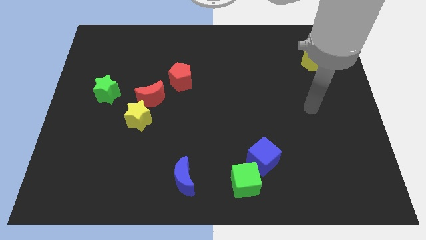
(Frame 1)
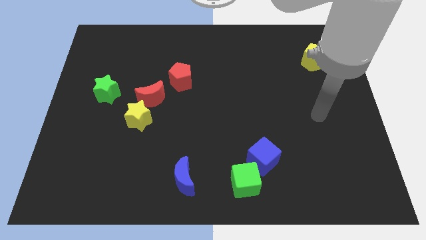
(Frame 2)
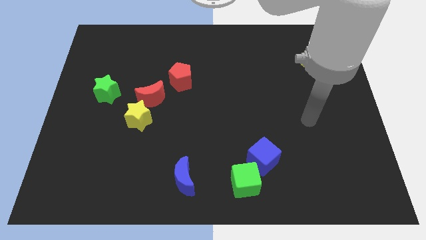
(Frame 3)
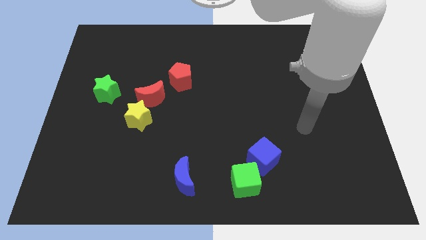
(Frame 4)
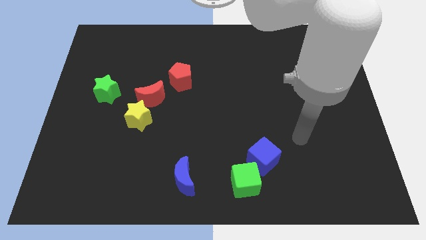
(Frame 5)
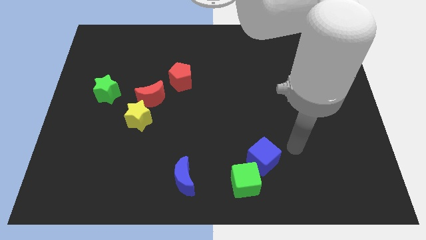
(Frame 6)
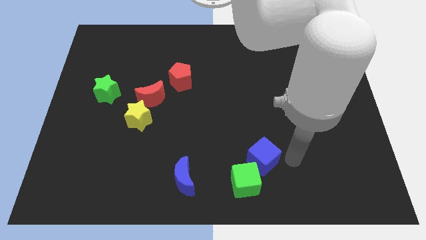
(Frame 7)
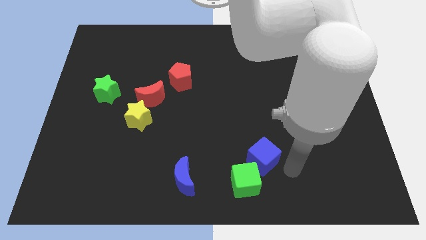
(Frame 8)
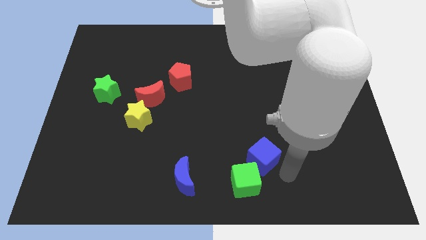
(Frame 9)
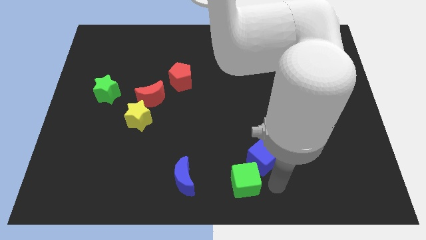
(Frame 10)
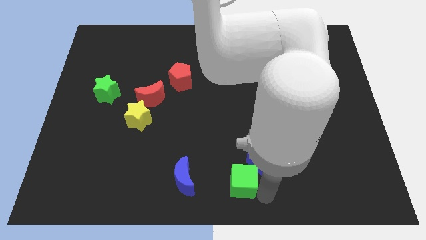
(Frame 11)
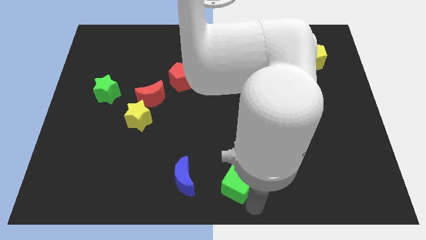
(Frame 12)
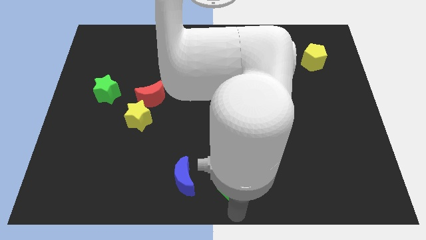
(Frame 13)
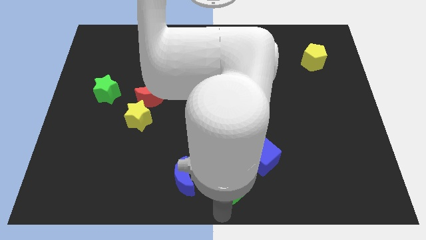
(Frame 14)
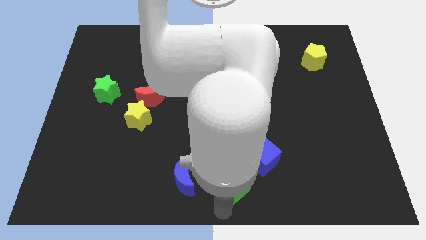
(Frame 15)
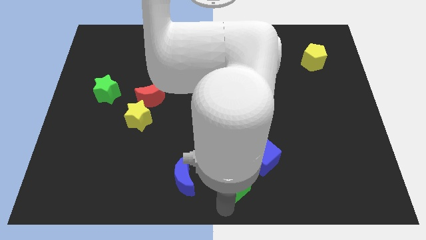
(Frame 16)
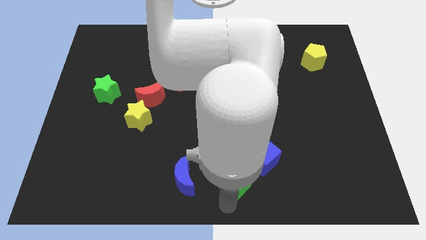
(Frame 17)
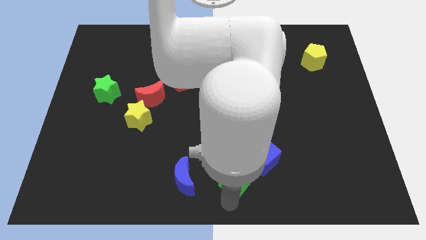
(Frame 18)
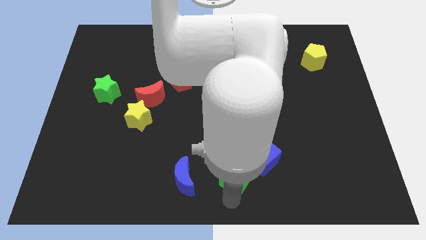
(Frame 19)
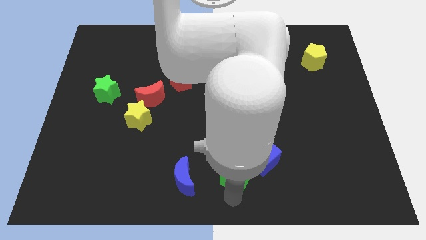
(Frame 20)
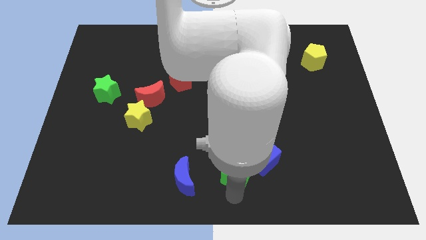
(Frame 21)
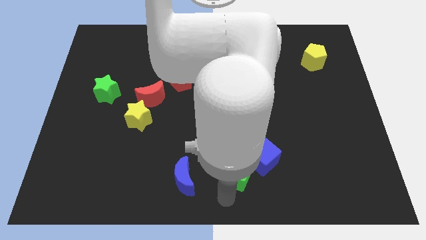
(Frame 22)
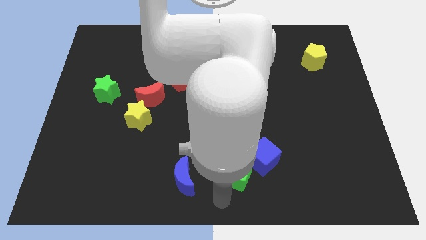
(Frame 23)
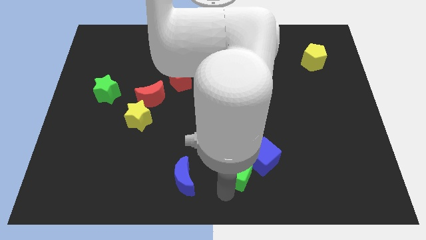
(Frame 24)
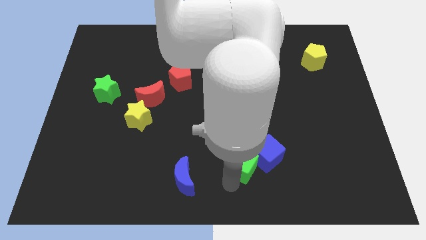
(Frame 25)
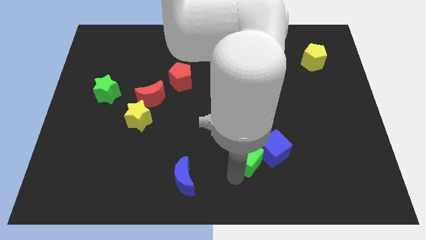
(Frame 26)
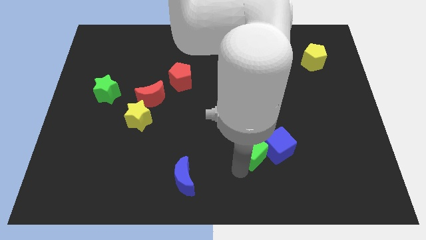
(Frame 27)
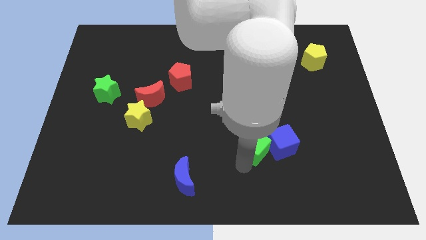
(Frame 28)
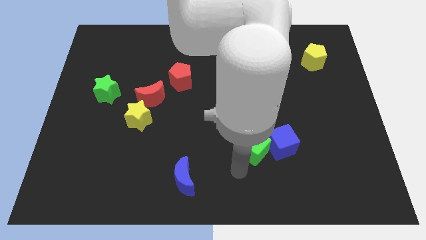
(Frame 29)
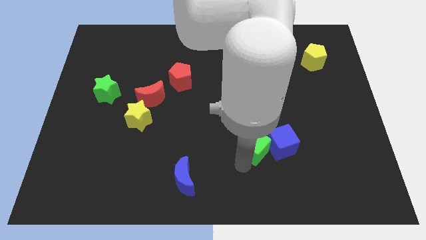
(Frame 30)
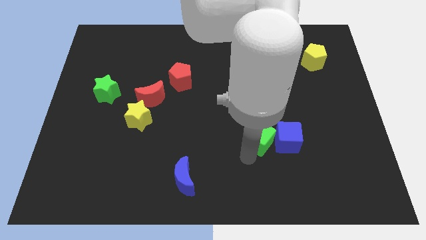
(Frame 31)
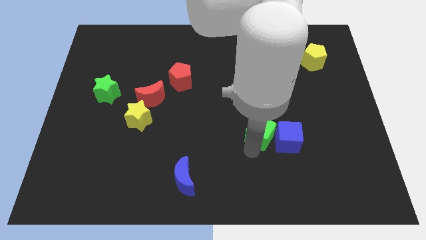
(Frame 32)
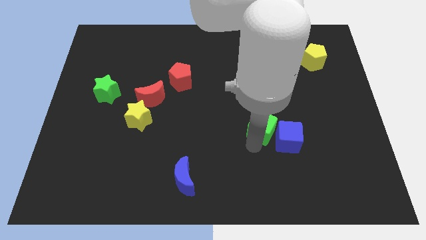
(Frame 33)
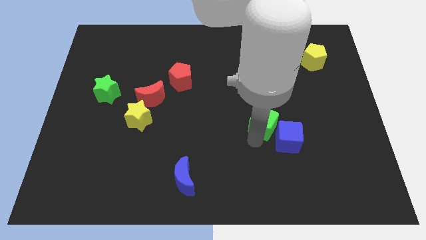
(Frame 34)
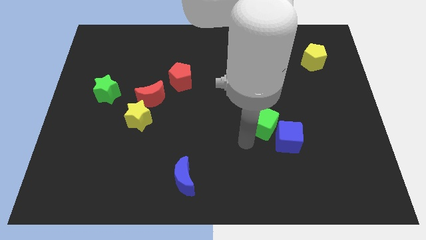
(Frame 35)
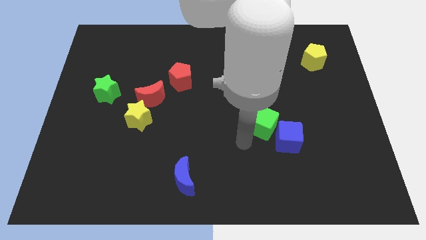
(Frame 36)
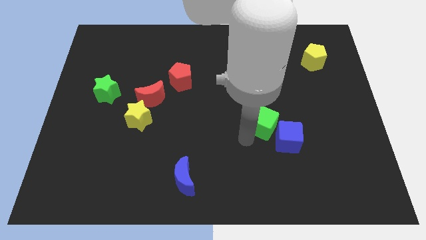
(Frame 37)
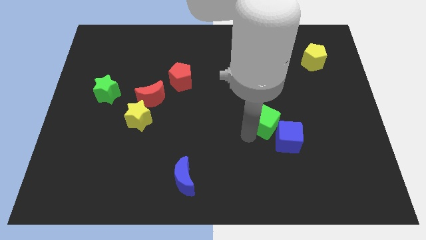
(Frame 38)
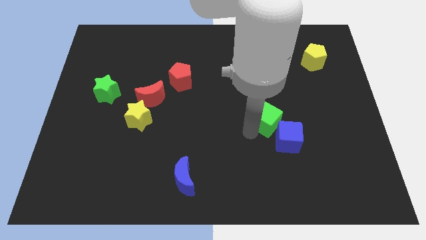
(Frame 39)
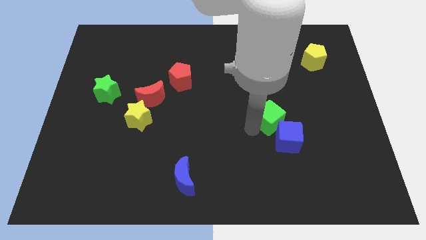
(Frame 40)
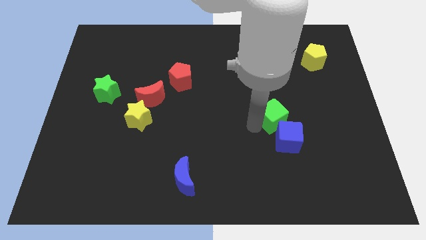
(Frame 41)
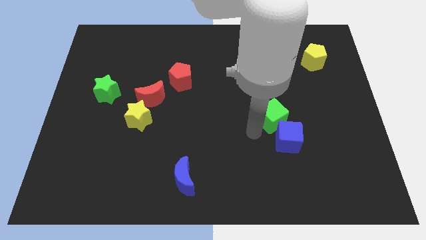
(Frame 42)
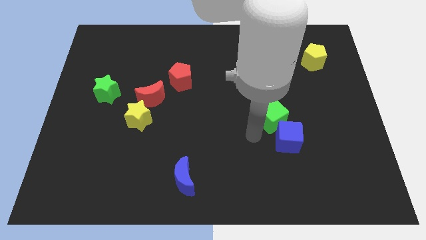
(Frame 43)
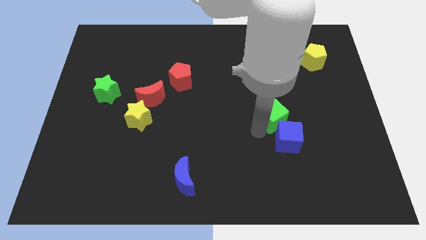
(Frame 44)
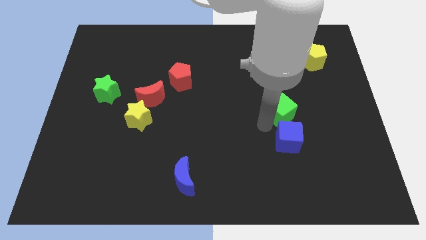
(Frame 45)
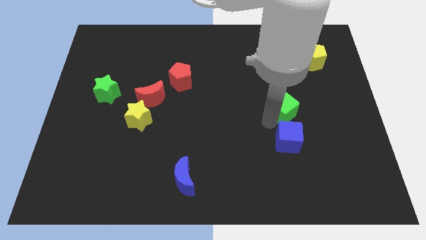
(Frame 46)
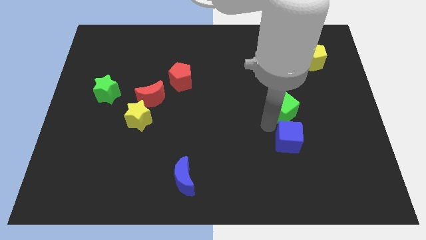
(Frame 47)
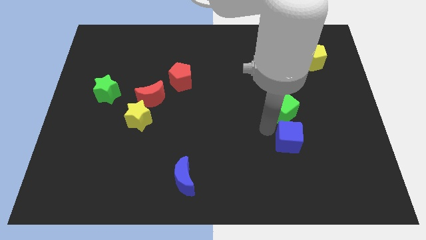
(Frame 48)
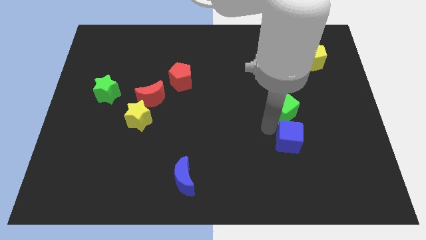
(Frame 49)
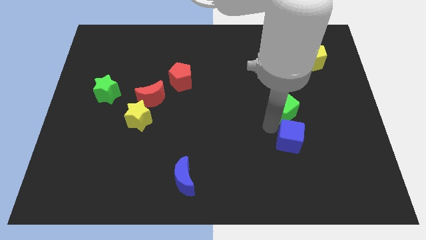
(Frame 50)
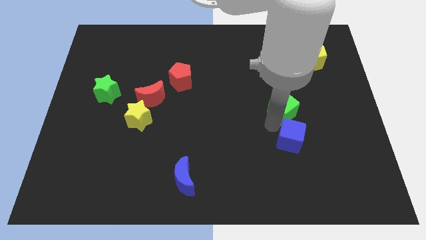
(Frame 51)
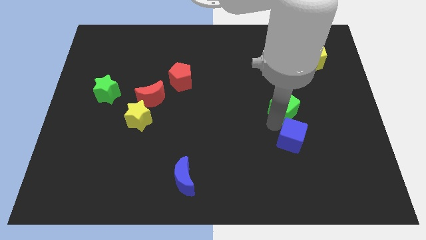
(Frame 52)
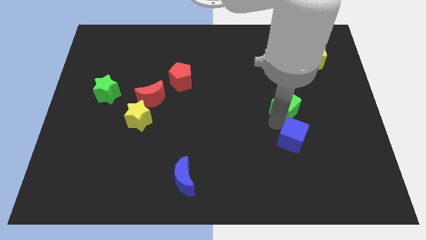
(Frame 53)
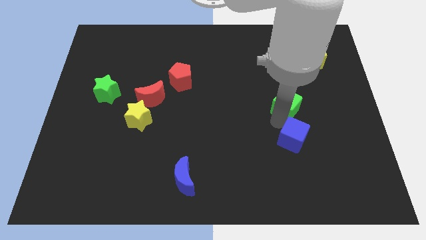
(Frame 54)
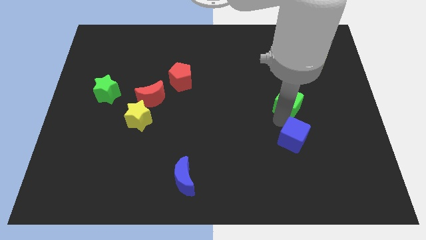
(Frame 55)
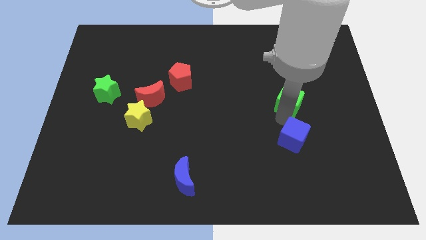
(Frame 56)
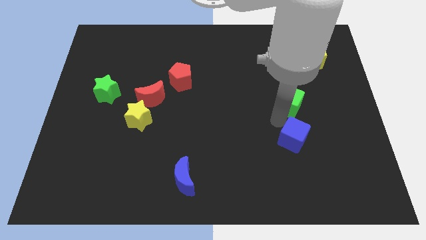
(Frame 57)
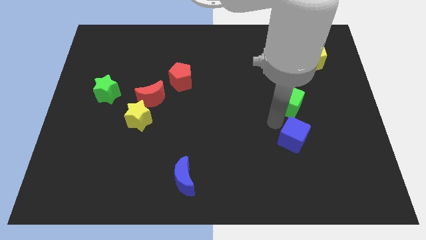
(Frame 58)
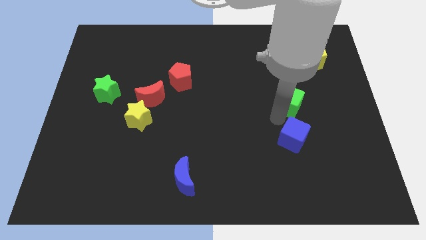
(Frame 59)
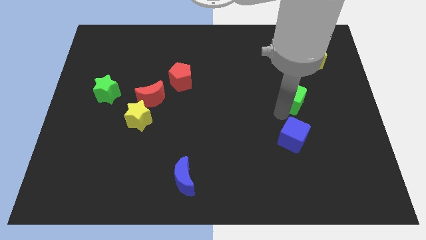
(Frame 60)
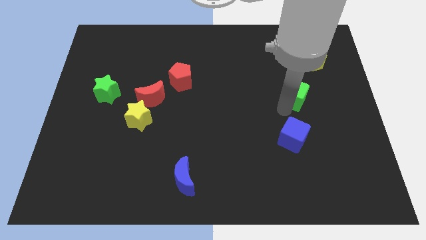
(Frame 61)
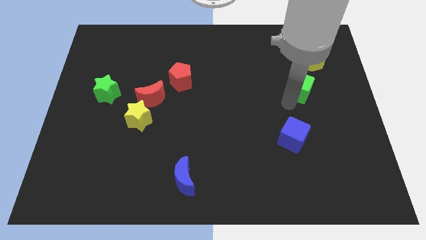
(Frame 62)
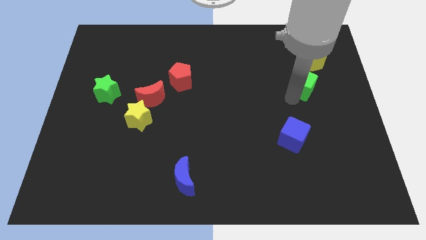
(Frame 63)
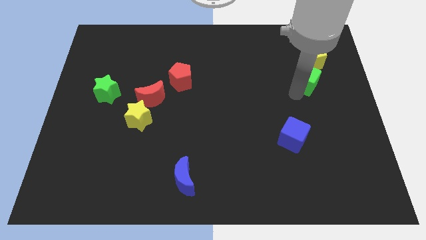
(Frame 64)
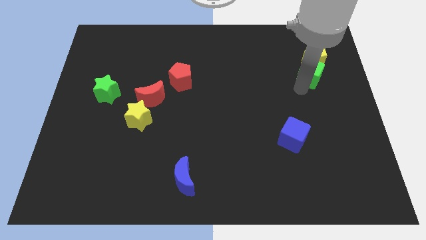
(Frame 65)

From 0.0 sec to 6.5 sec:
put the green cube towards the yellow pentagon

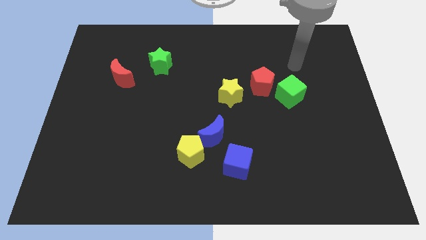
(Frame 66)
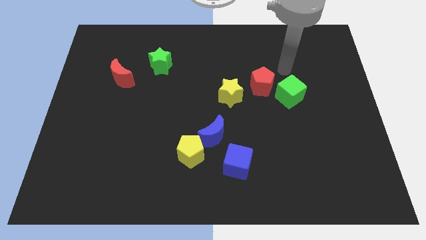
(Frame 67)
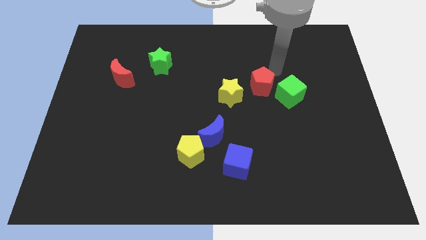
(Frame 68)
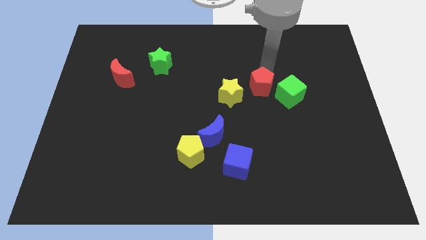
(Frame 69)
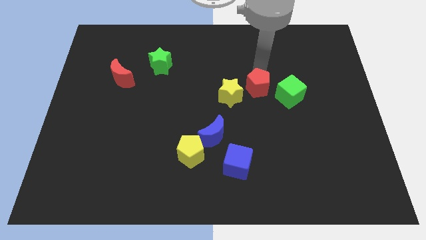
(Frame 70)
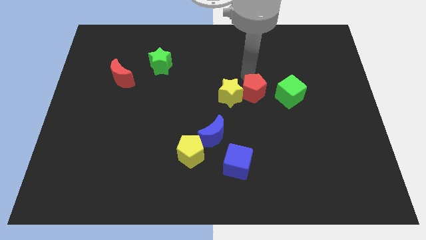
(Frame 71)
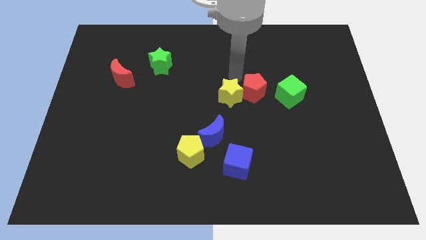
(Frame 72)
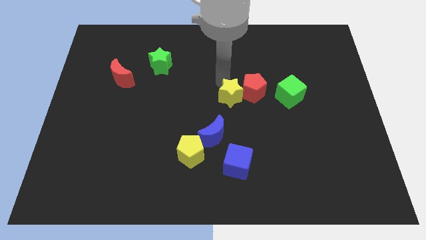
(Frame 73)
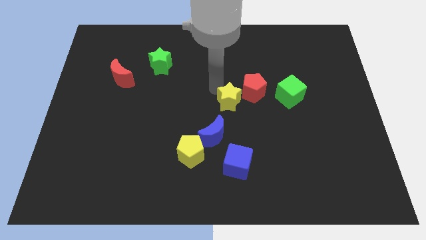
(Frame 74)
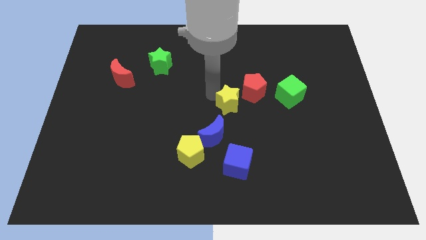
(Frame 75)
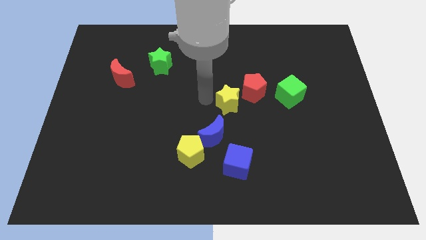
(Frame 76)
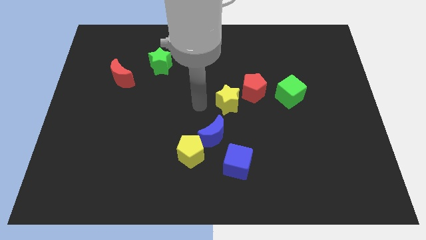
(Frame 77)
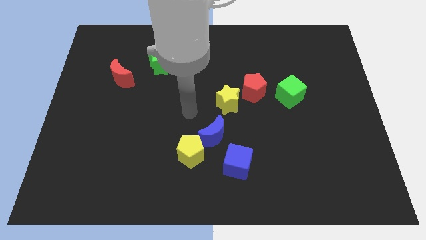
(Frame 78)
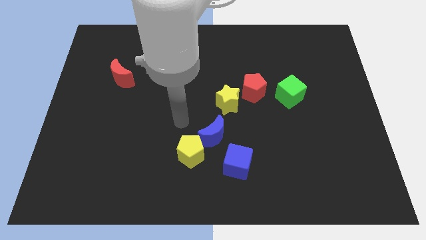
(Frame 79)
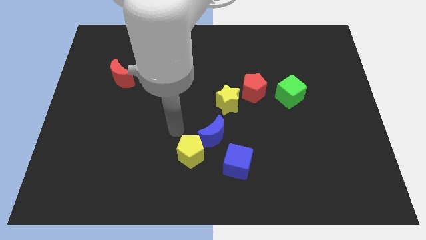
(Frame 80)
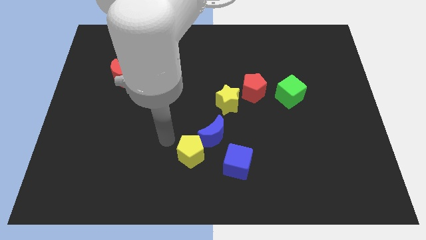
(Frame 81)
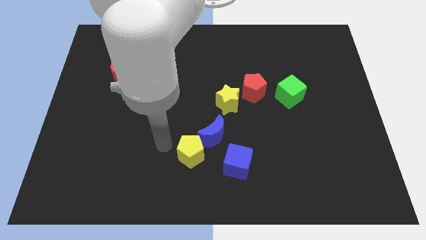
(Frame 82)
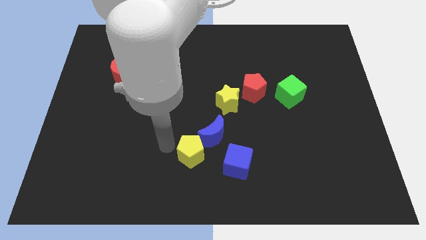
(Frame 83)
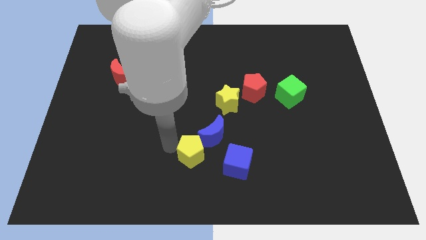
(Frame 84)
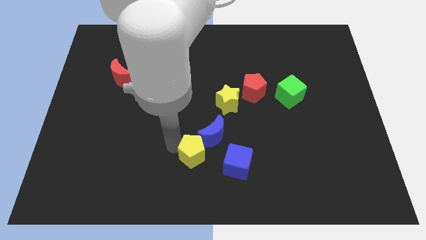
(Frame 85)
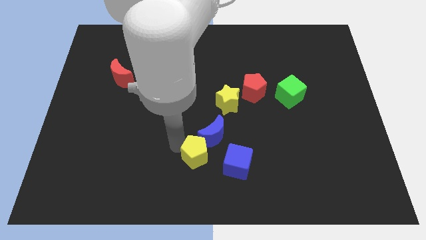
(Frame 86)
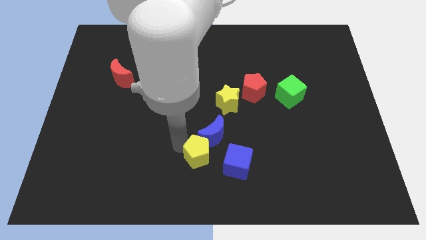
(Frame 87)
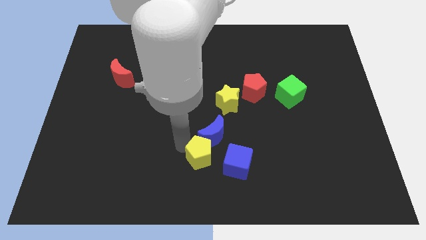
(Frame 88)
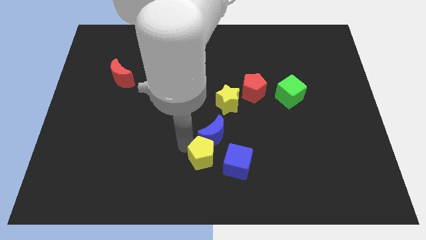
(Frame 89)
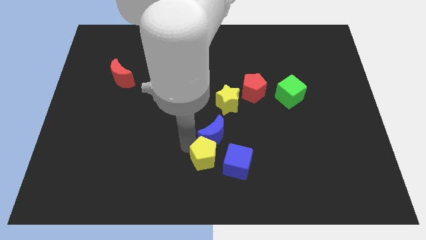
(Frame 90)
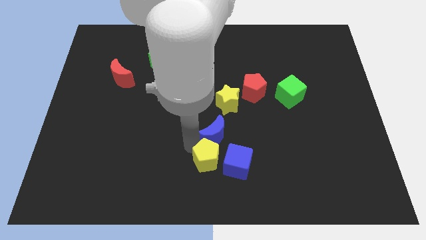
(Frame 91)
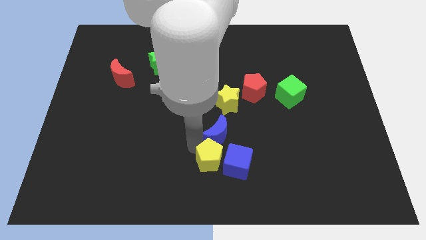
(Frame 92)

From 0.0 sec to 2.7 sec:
move the yellow pentagon next to the blue cube
